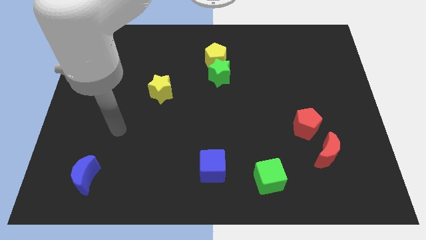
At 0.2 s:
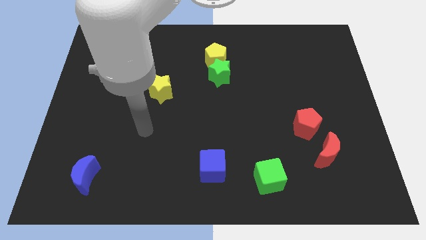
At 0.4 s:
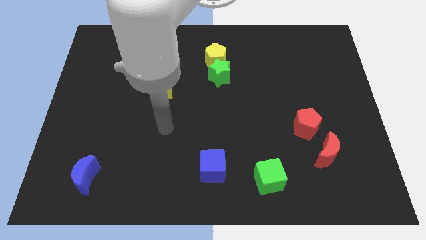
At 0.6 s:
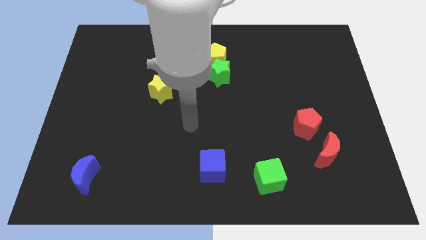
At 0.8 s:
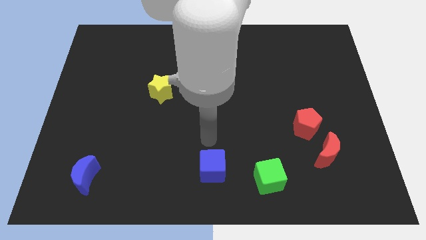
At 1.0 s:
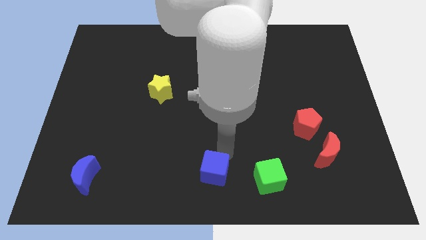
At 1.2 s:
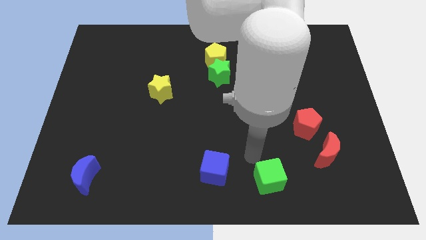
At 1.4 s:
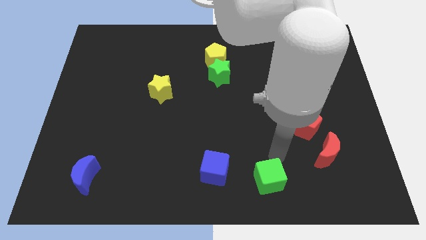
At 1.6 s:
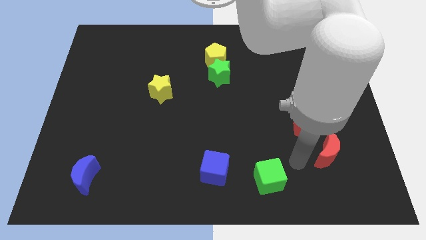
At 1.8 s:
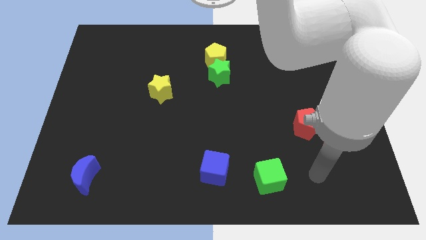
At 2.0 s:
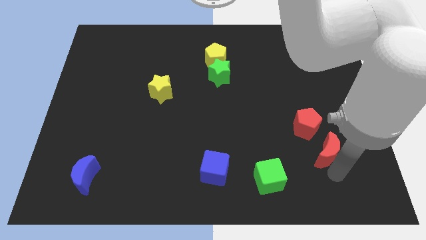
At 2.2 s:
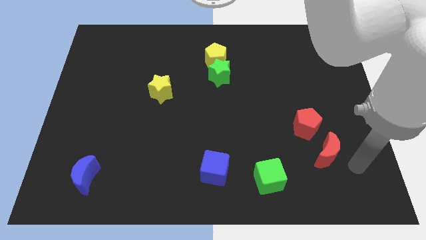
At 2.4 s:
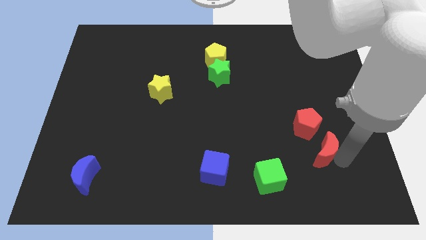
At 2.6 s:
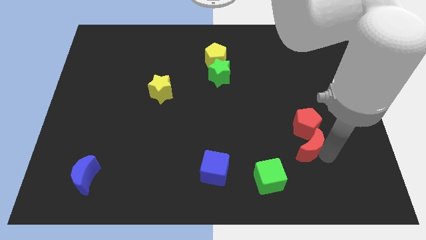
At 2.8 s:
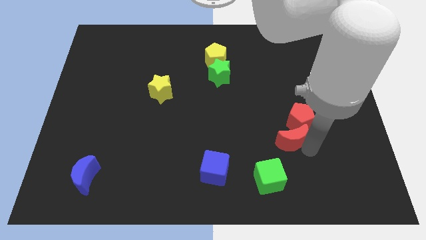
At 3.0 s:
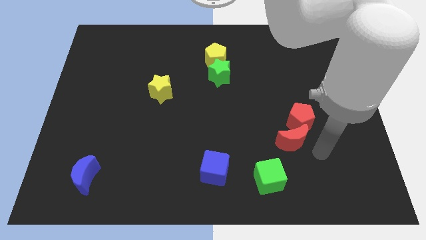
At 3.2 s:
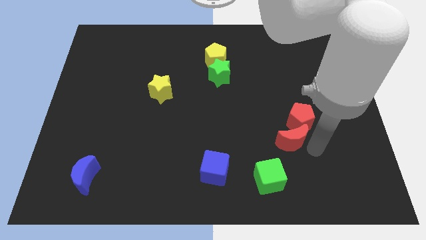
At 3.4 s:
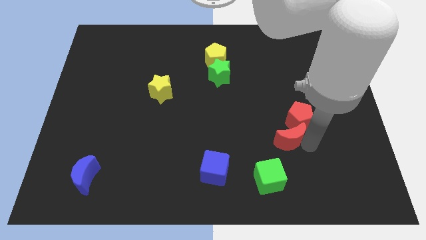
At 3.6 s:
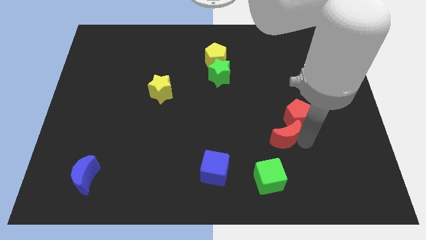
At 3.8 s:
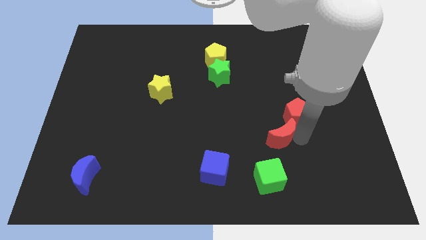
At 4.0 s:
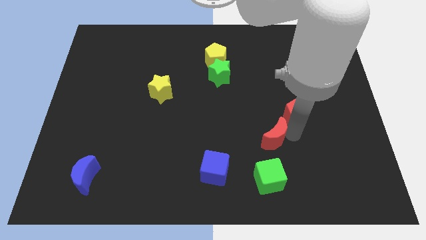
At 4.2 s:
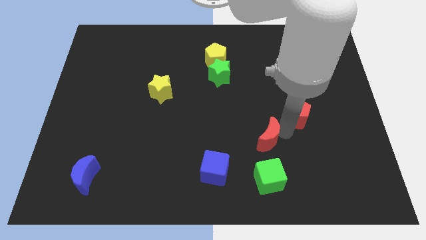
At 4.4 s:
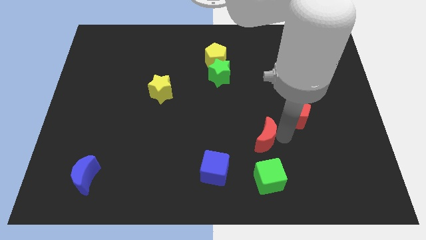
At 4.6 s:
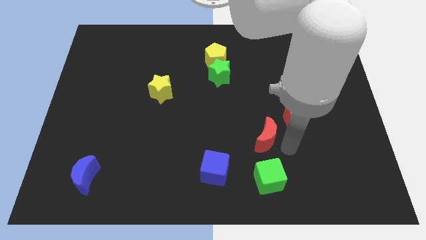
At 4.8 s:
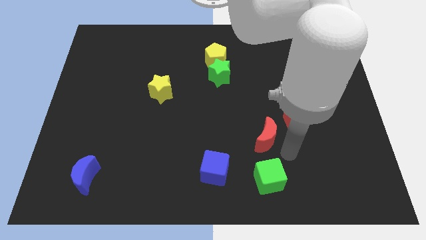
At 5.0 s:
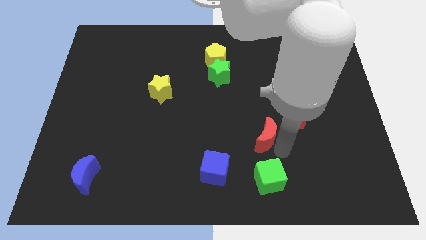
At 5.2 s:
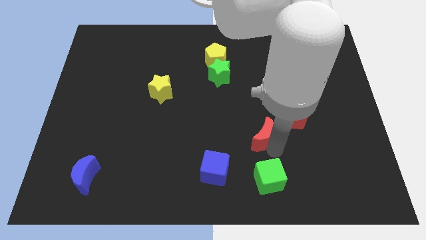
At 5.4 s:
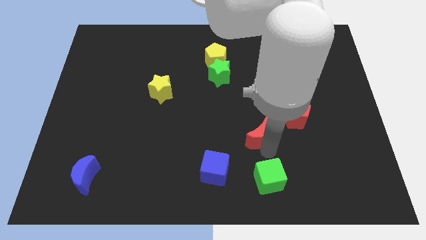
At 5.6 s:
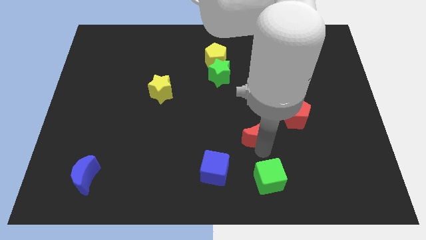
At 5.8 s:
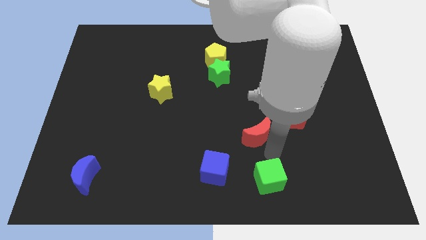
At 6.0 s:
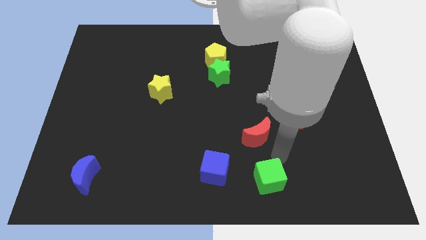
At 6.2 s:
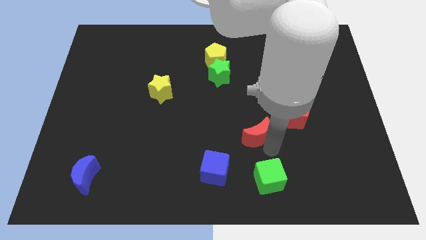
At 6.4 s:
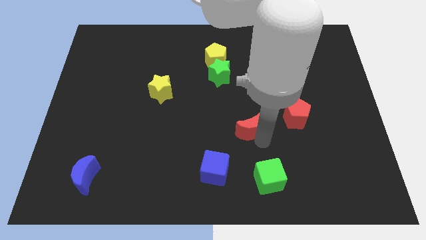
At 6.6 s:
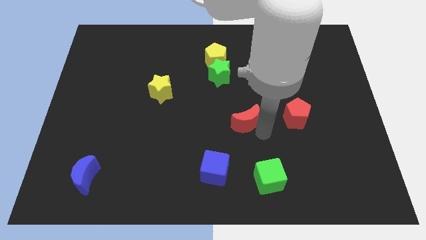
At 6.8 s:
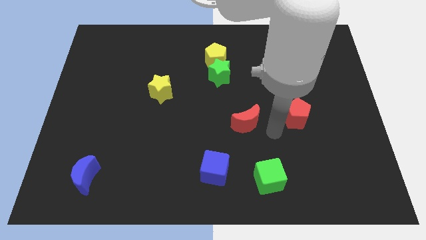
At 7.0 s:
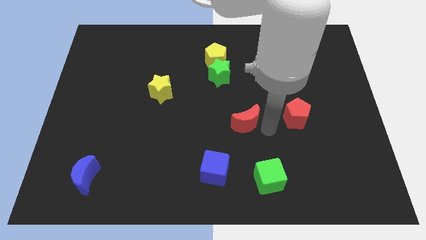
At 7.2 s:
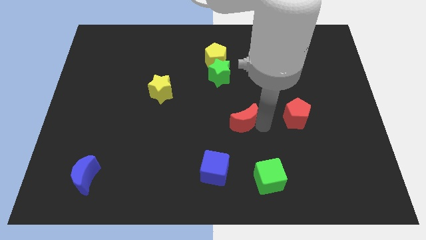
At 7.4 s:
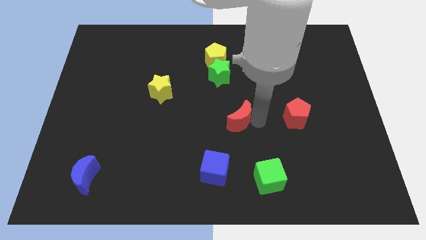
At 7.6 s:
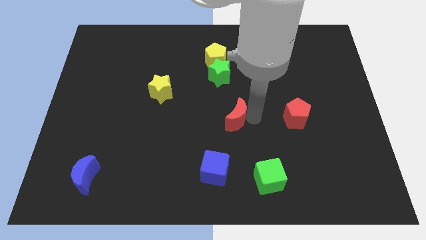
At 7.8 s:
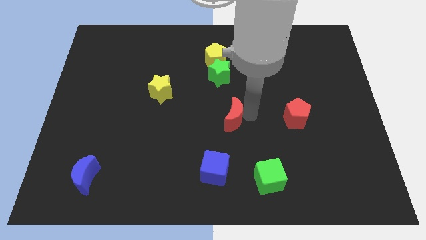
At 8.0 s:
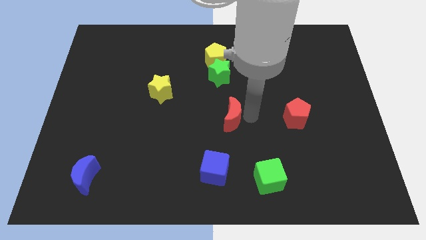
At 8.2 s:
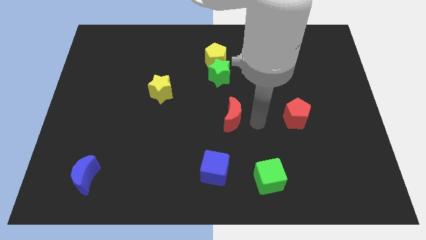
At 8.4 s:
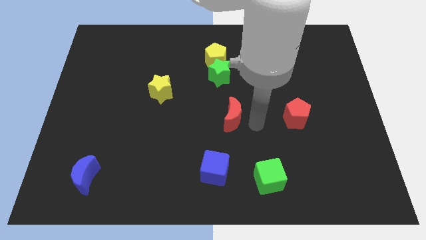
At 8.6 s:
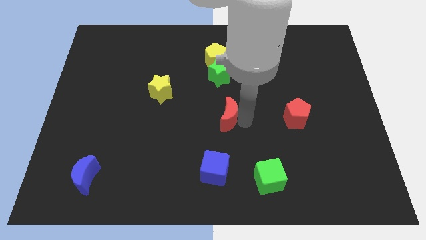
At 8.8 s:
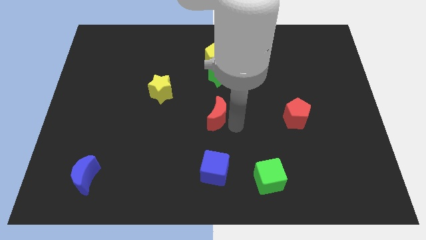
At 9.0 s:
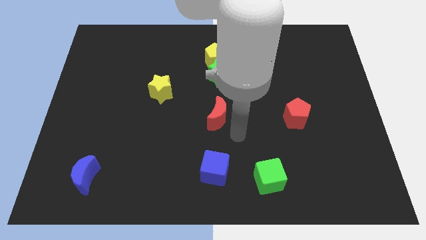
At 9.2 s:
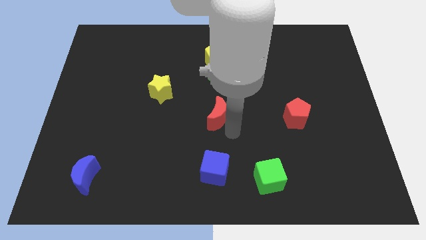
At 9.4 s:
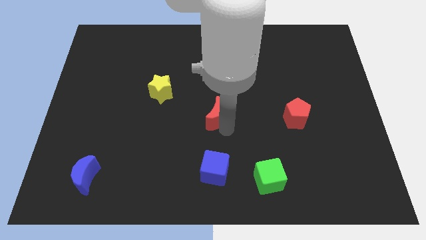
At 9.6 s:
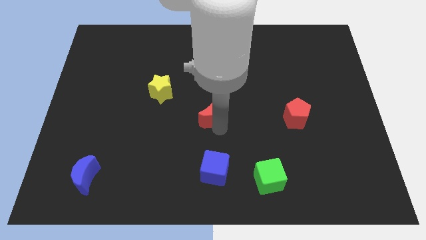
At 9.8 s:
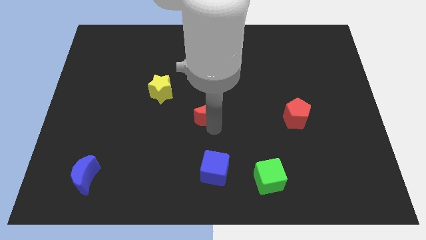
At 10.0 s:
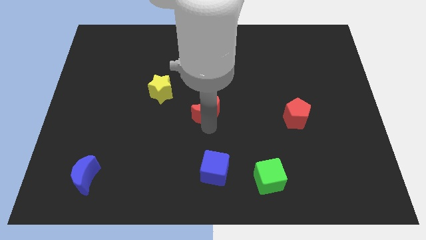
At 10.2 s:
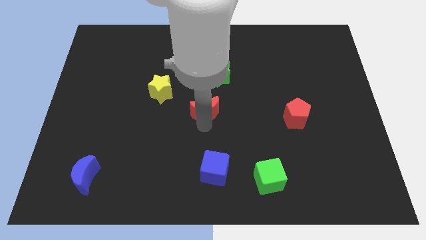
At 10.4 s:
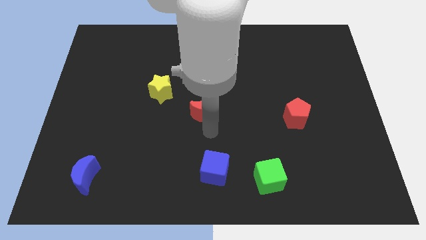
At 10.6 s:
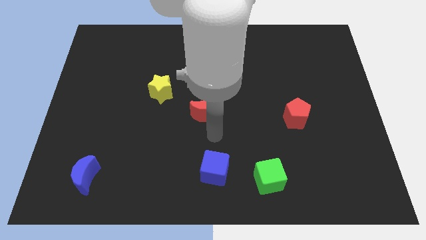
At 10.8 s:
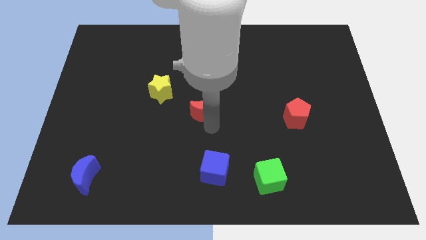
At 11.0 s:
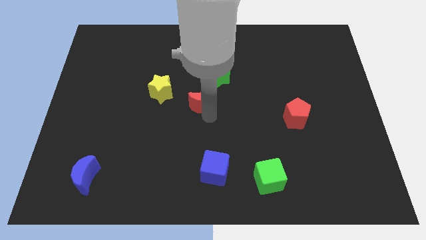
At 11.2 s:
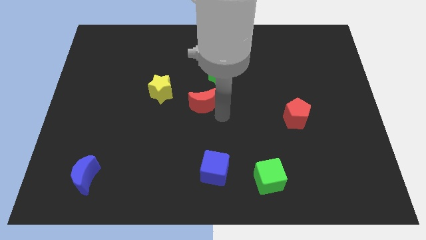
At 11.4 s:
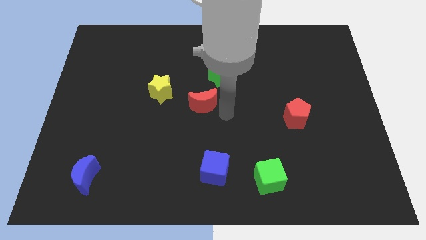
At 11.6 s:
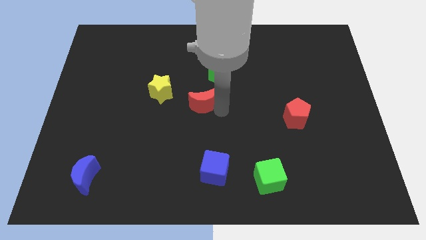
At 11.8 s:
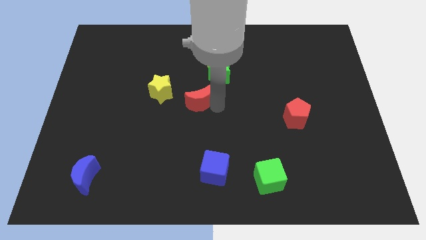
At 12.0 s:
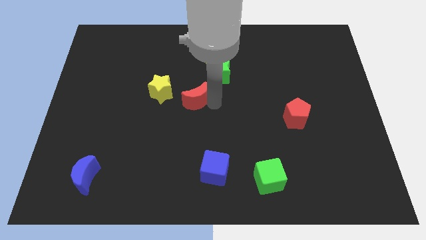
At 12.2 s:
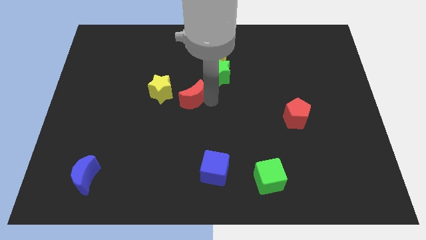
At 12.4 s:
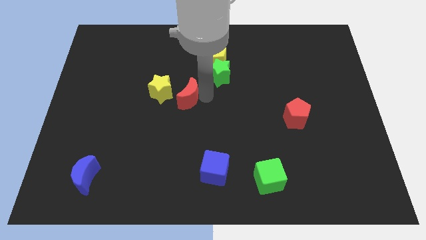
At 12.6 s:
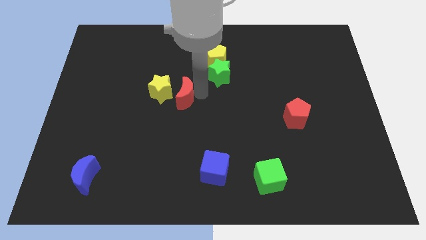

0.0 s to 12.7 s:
push the red moon close to the yellow star

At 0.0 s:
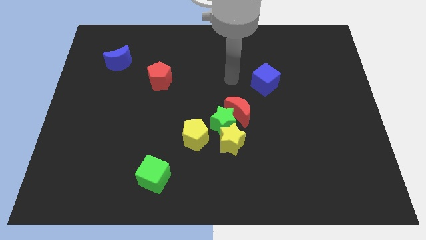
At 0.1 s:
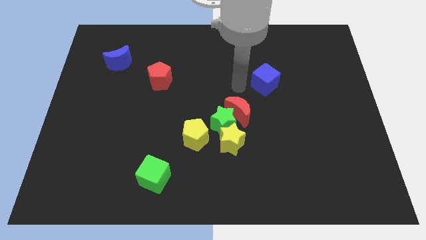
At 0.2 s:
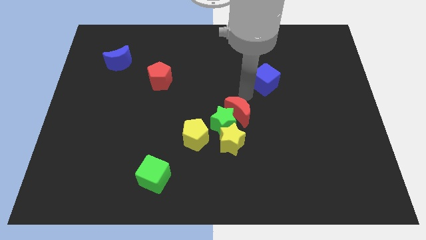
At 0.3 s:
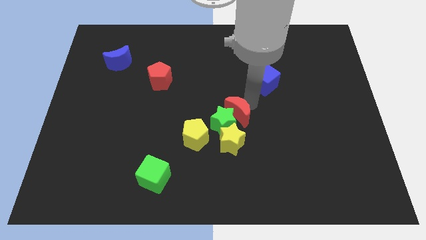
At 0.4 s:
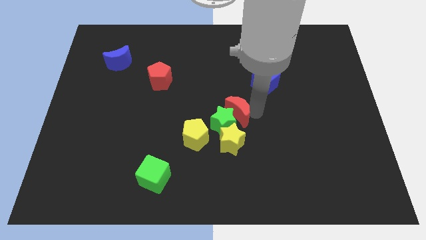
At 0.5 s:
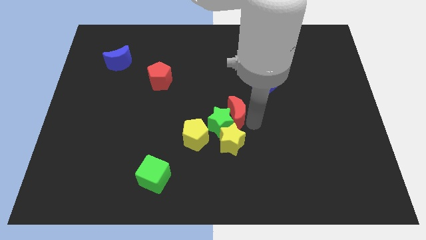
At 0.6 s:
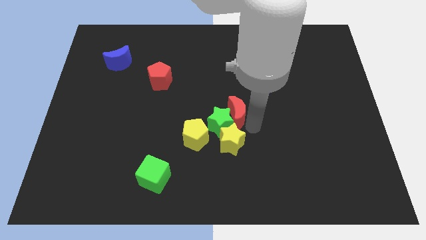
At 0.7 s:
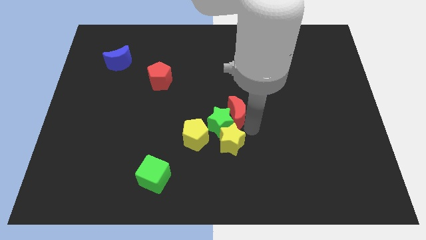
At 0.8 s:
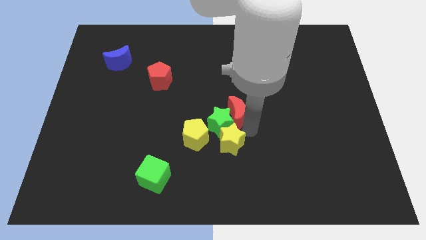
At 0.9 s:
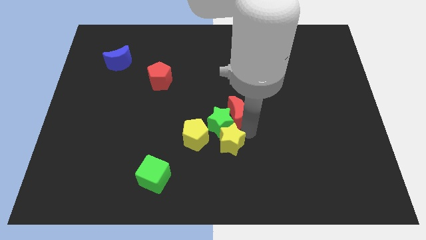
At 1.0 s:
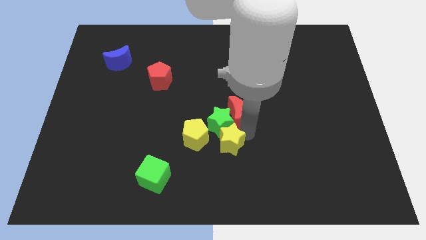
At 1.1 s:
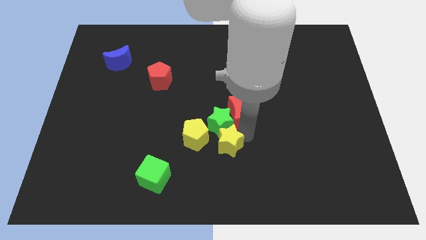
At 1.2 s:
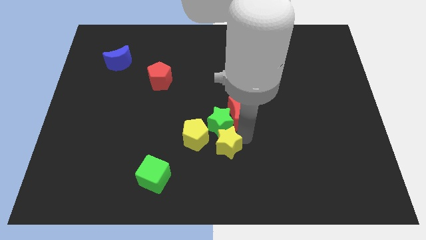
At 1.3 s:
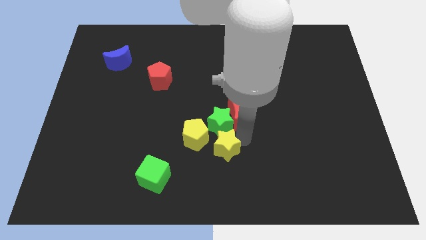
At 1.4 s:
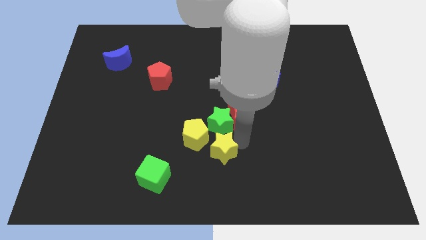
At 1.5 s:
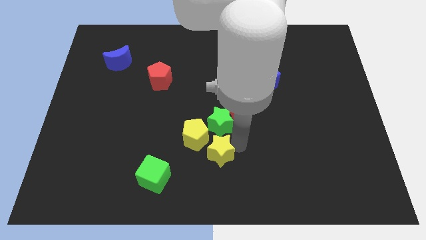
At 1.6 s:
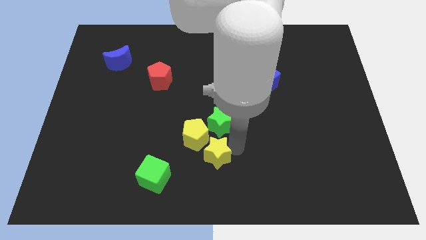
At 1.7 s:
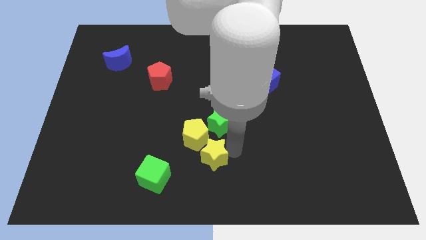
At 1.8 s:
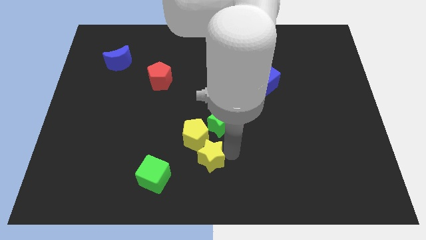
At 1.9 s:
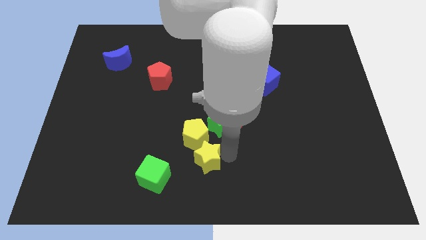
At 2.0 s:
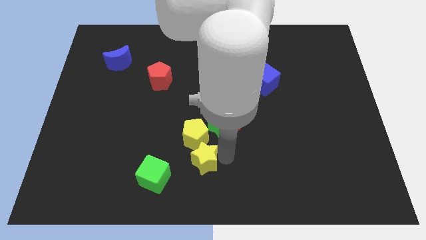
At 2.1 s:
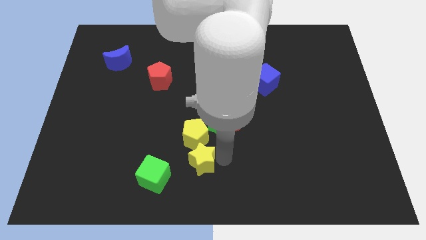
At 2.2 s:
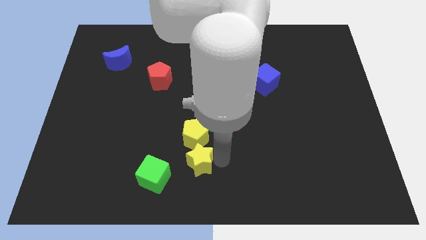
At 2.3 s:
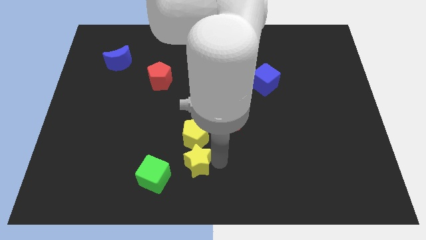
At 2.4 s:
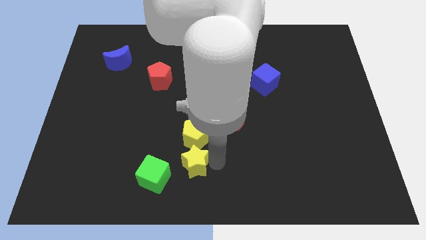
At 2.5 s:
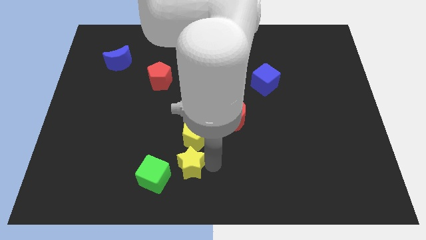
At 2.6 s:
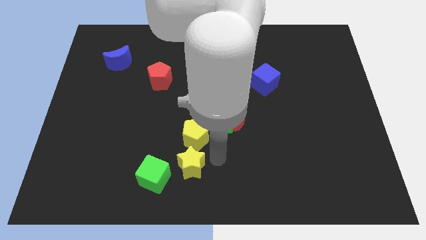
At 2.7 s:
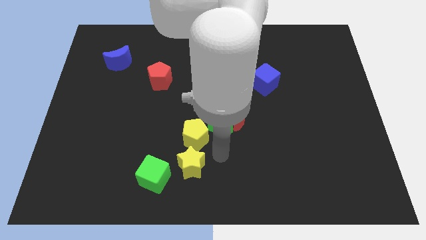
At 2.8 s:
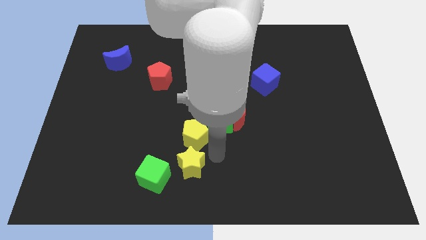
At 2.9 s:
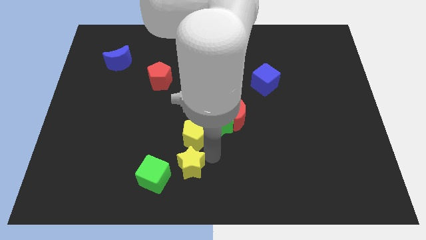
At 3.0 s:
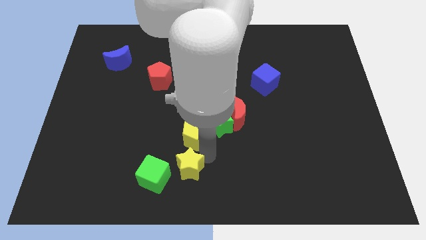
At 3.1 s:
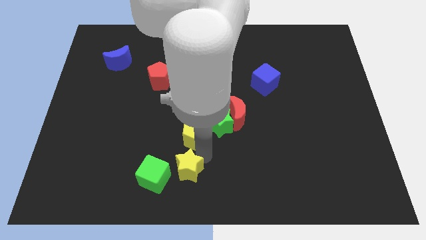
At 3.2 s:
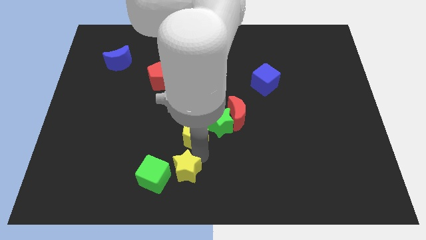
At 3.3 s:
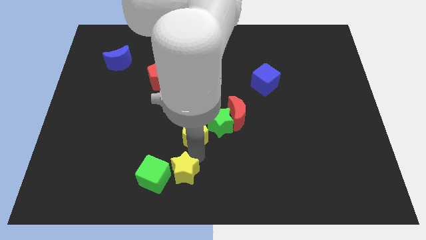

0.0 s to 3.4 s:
push the yellow star to the green cube
